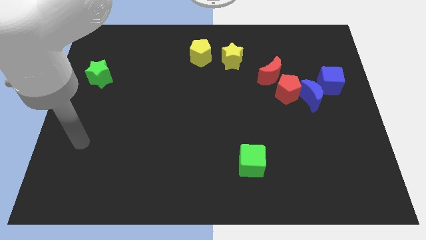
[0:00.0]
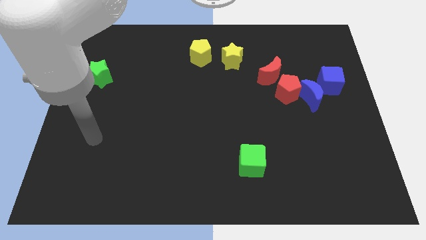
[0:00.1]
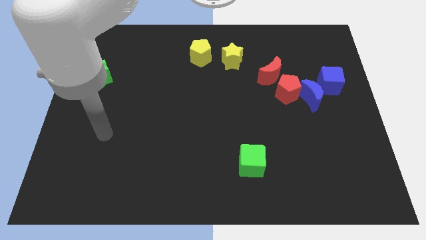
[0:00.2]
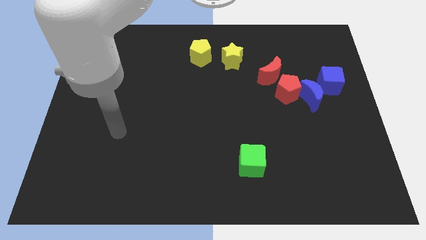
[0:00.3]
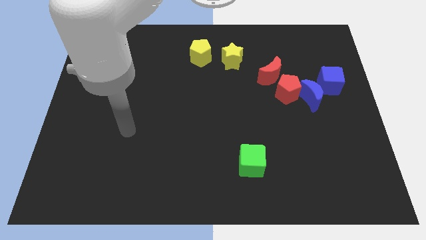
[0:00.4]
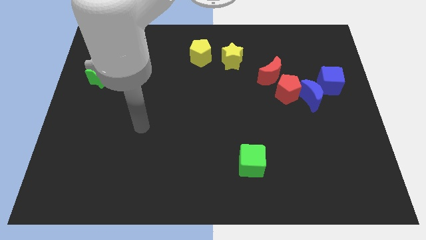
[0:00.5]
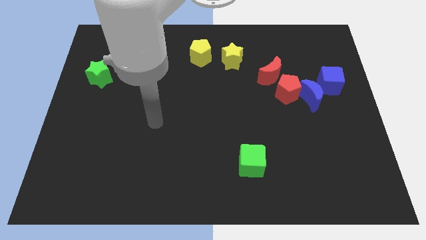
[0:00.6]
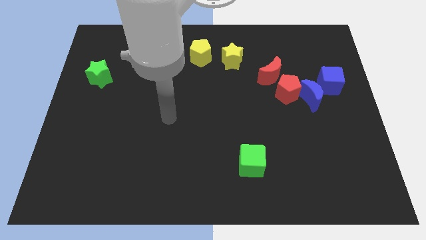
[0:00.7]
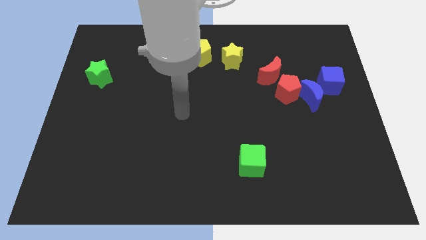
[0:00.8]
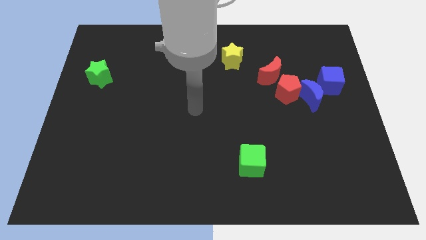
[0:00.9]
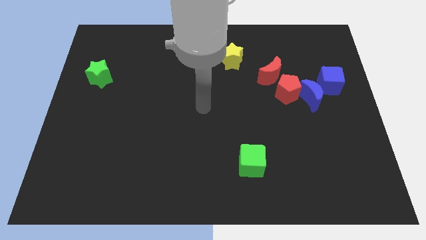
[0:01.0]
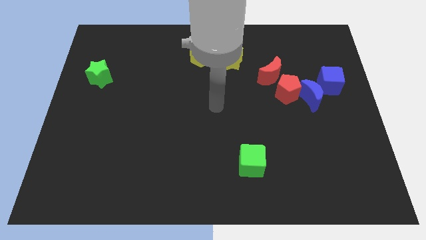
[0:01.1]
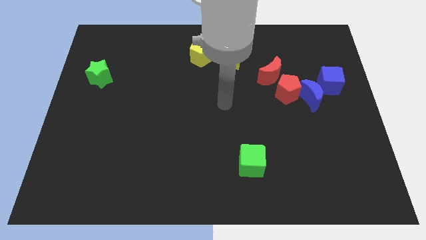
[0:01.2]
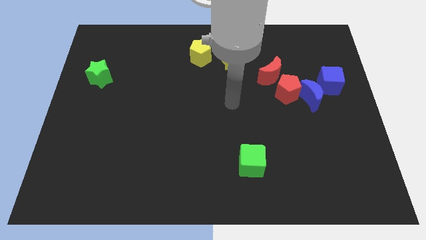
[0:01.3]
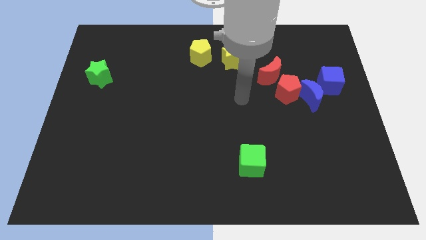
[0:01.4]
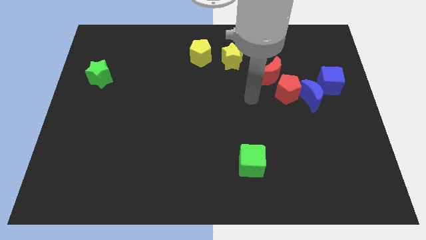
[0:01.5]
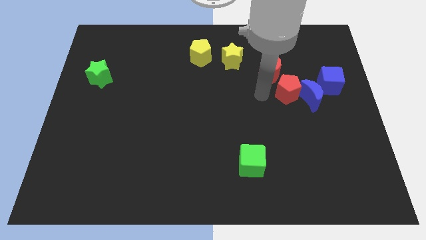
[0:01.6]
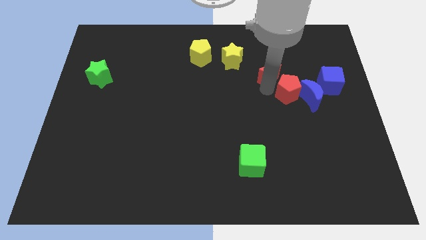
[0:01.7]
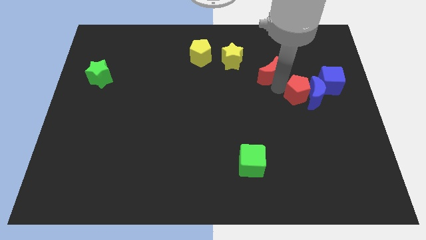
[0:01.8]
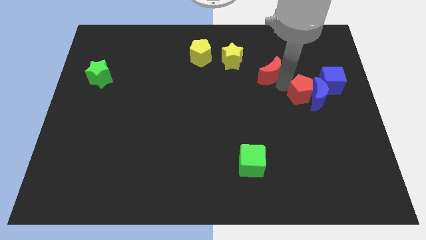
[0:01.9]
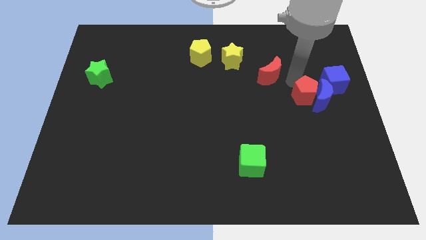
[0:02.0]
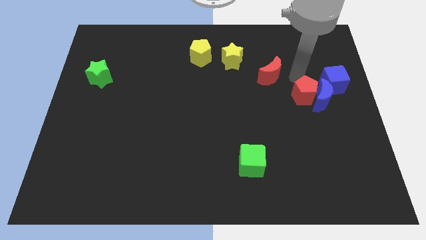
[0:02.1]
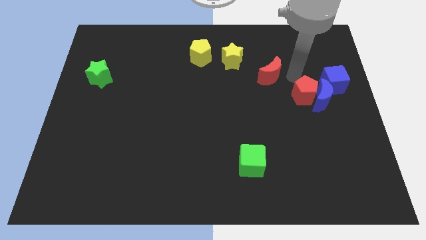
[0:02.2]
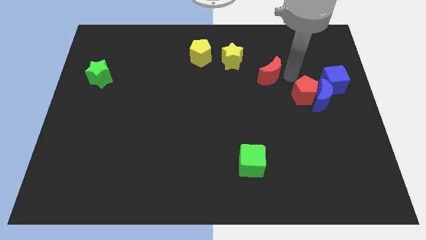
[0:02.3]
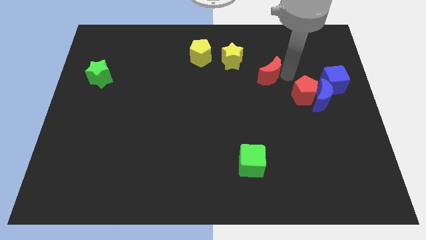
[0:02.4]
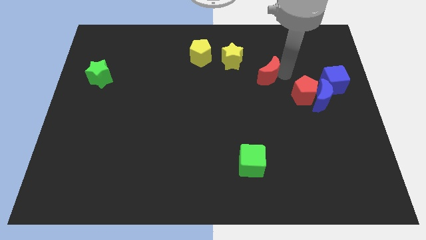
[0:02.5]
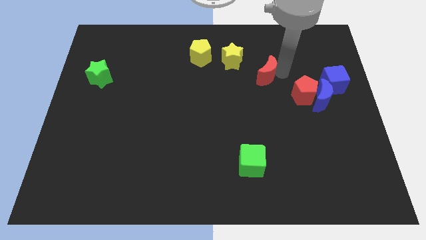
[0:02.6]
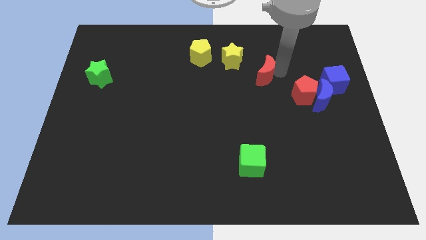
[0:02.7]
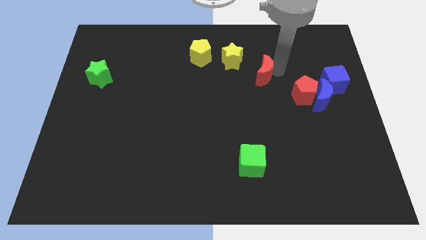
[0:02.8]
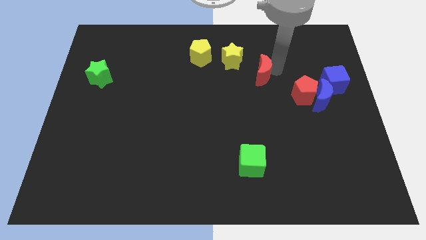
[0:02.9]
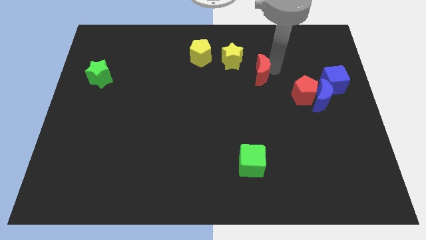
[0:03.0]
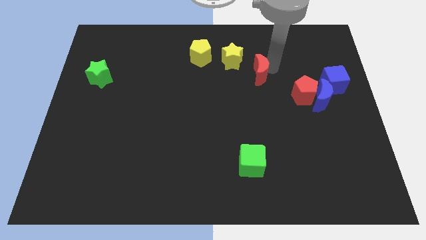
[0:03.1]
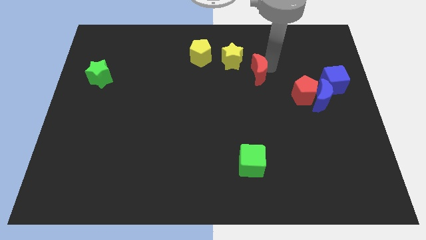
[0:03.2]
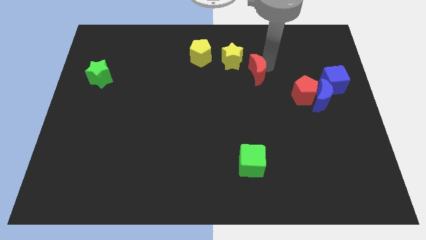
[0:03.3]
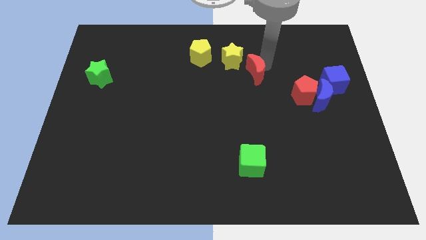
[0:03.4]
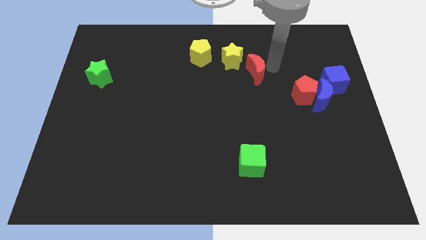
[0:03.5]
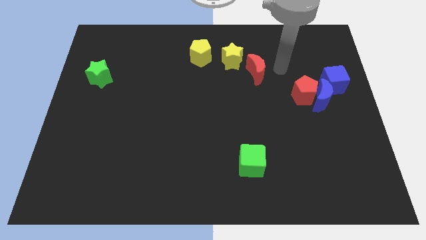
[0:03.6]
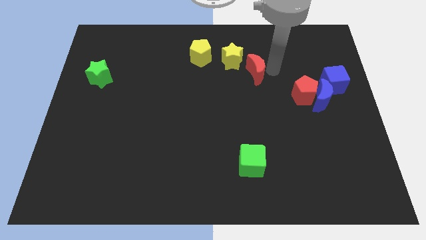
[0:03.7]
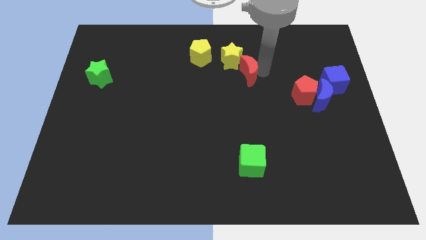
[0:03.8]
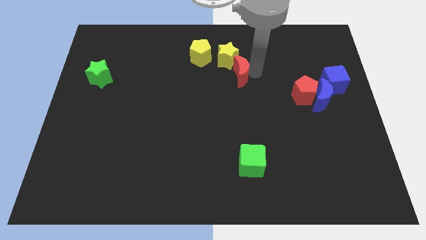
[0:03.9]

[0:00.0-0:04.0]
slightly move the red moon left

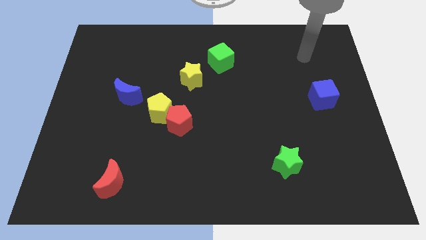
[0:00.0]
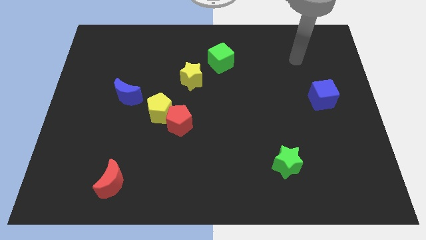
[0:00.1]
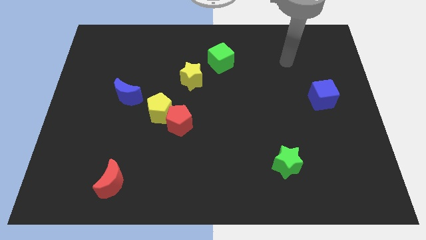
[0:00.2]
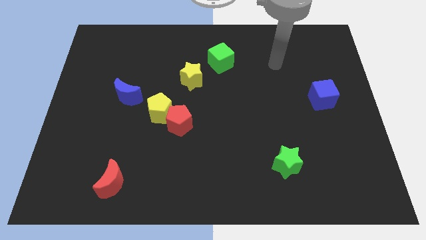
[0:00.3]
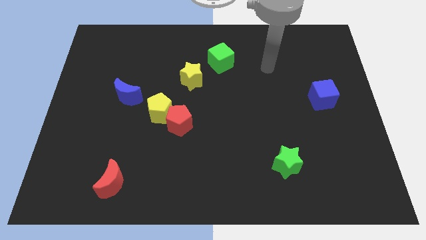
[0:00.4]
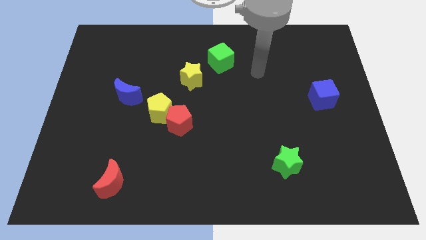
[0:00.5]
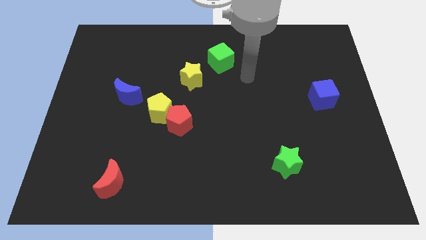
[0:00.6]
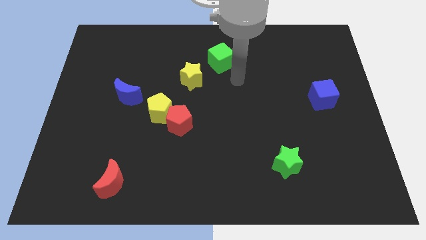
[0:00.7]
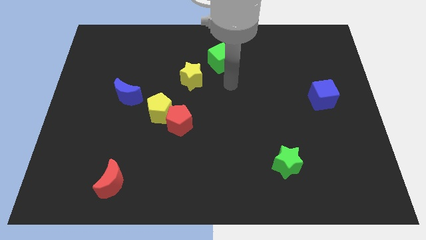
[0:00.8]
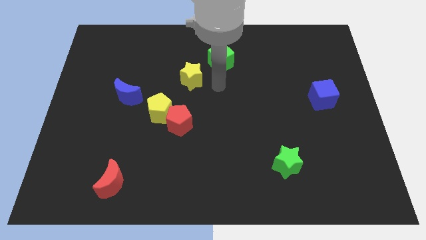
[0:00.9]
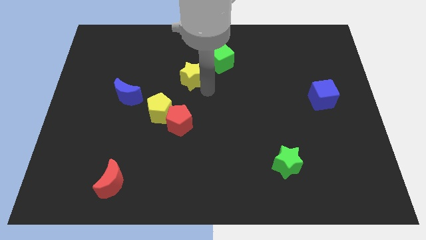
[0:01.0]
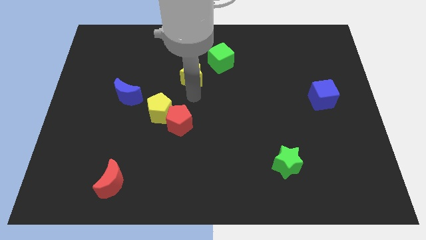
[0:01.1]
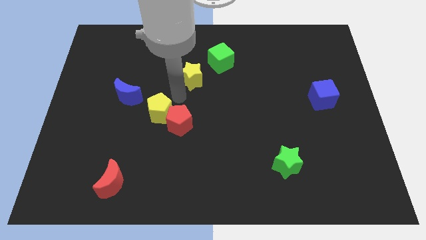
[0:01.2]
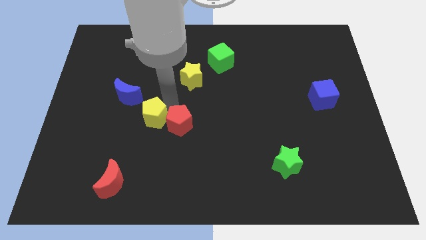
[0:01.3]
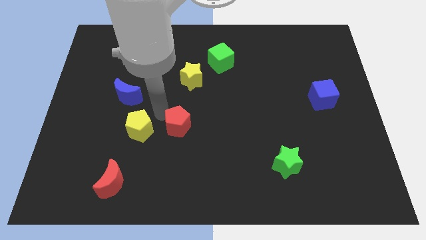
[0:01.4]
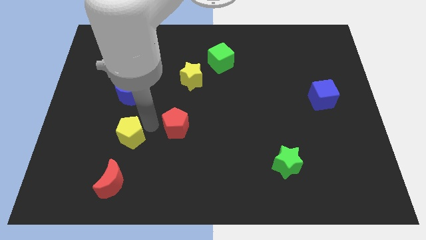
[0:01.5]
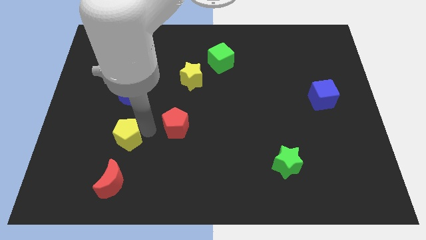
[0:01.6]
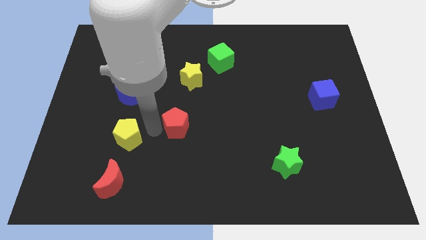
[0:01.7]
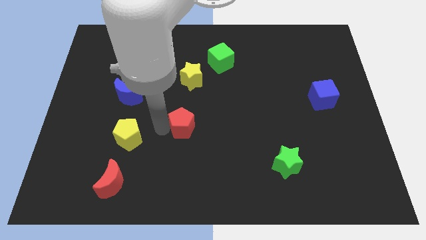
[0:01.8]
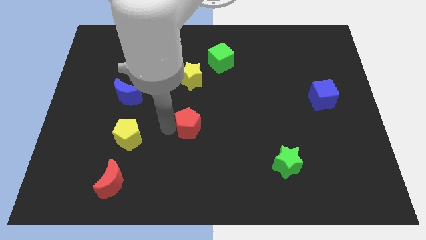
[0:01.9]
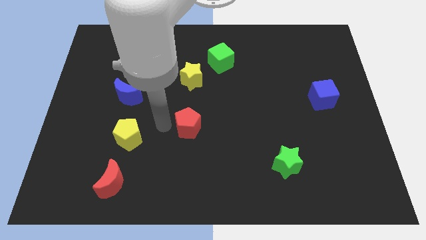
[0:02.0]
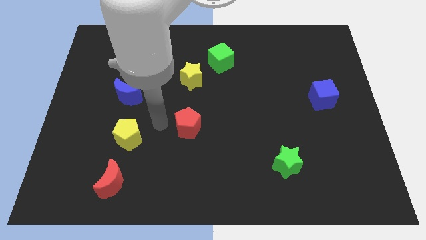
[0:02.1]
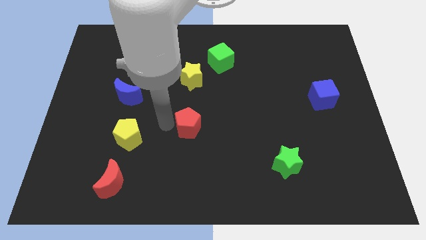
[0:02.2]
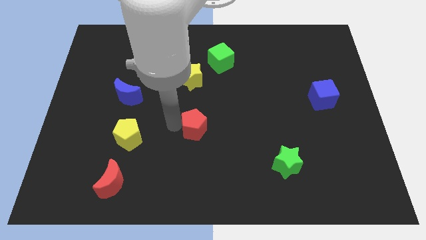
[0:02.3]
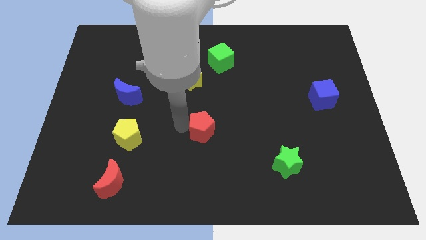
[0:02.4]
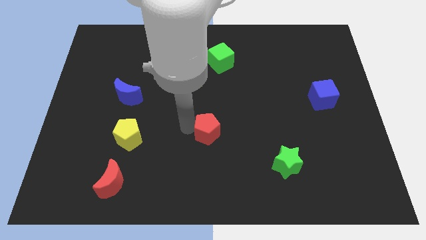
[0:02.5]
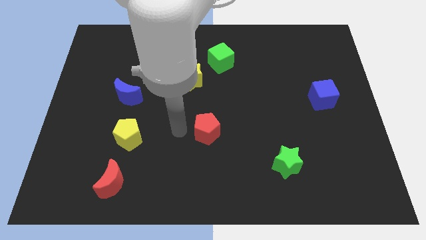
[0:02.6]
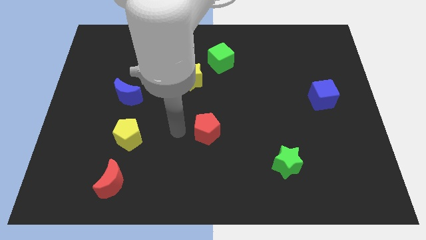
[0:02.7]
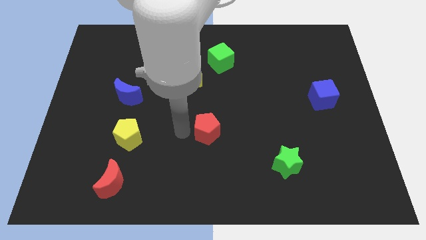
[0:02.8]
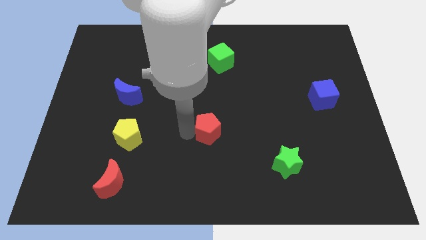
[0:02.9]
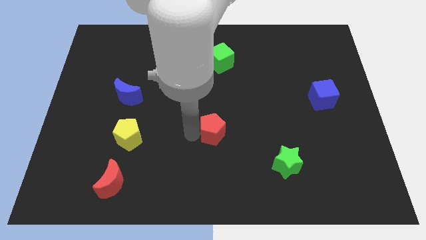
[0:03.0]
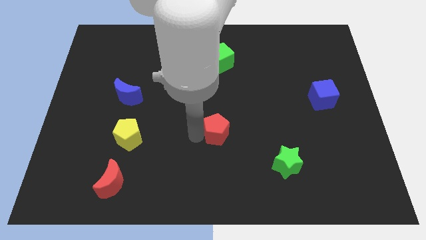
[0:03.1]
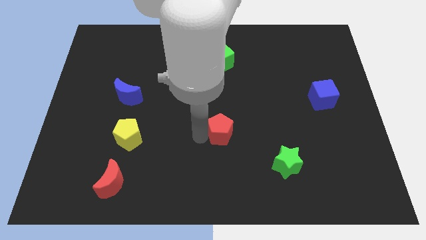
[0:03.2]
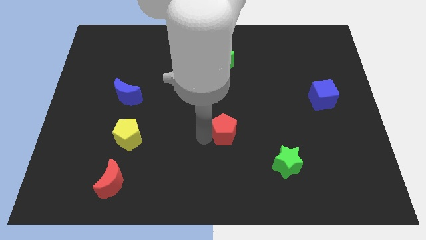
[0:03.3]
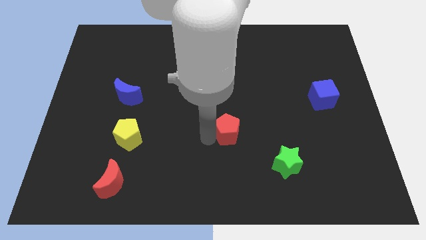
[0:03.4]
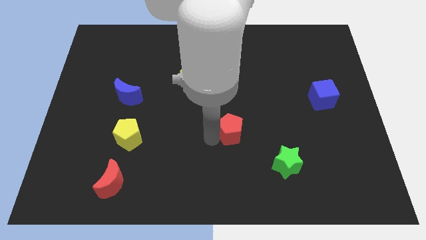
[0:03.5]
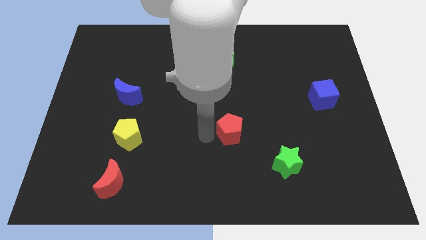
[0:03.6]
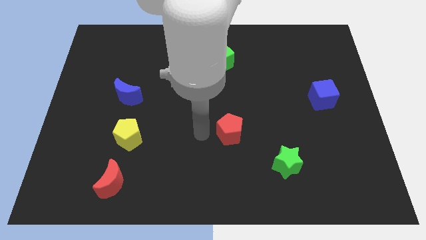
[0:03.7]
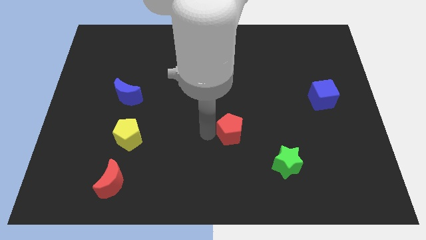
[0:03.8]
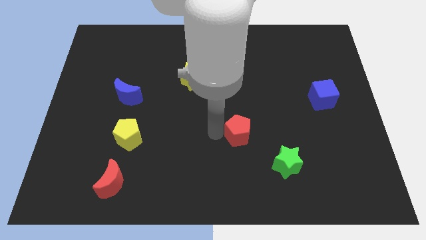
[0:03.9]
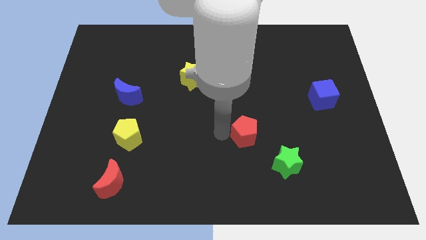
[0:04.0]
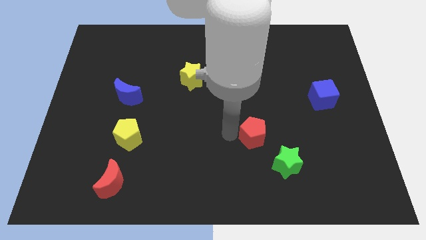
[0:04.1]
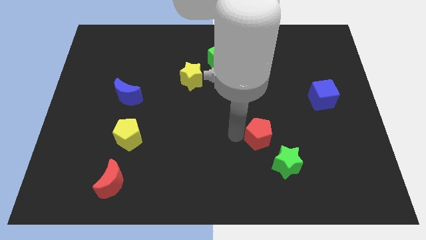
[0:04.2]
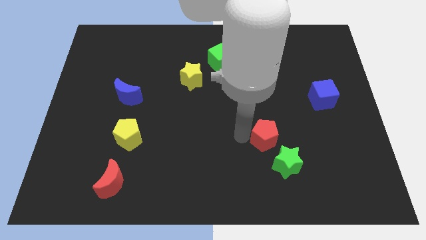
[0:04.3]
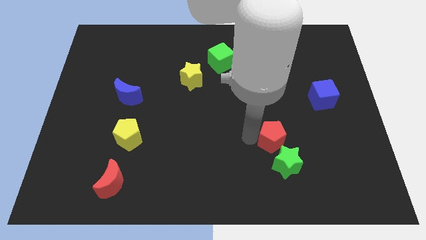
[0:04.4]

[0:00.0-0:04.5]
slide the red pentagon right
